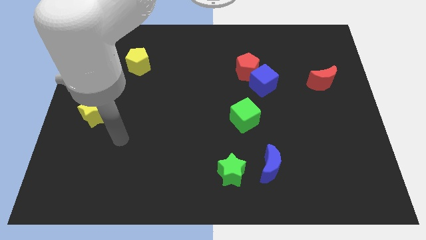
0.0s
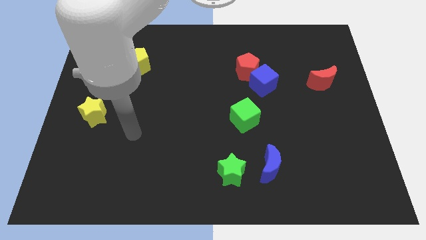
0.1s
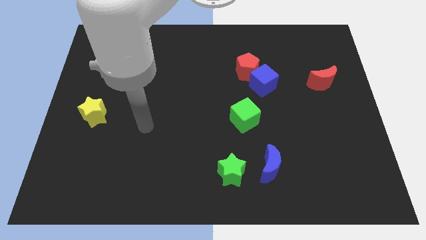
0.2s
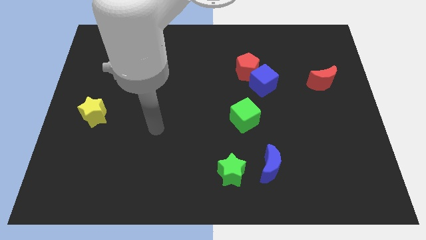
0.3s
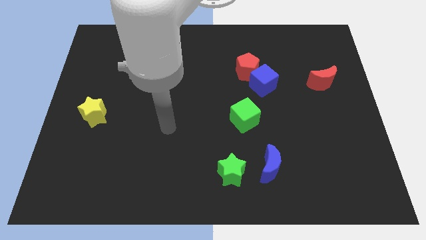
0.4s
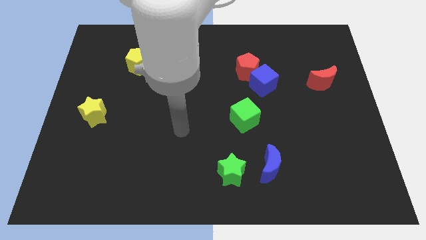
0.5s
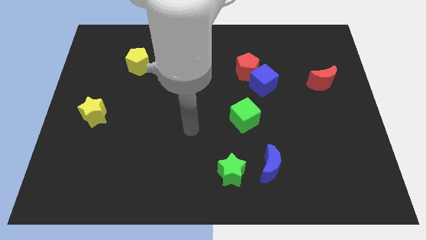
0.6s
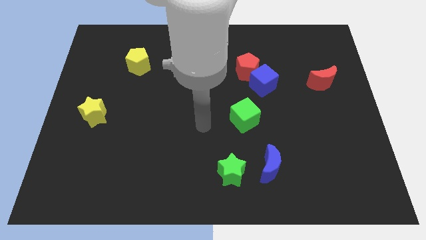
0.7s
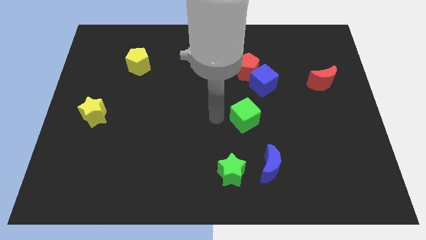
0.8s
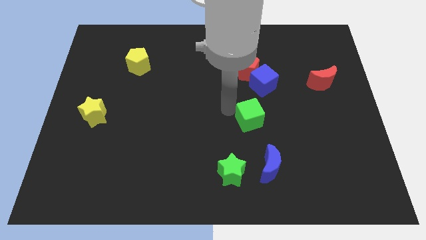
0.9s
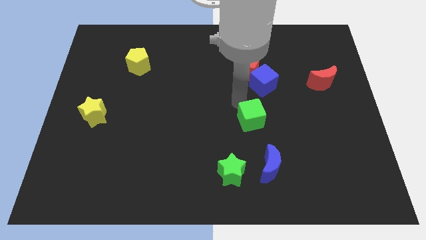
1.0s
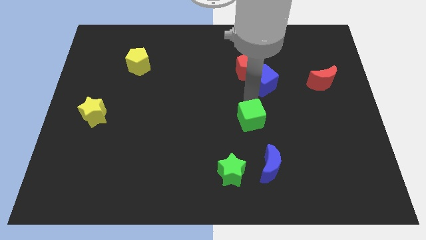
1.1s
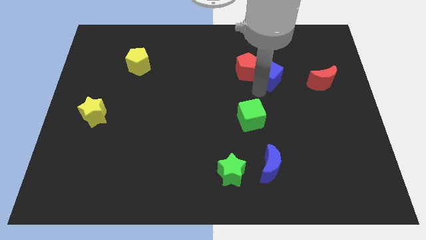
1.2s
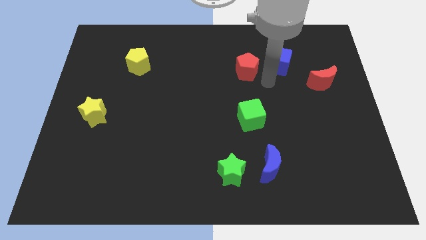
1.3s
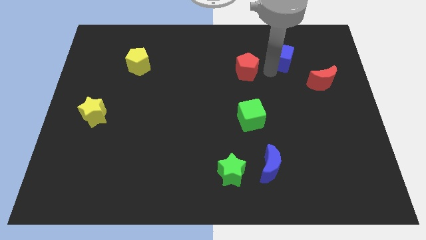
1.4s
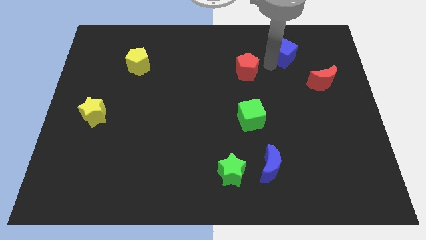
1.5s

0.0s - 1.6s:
separate the red pentagon from the blue cube

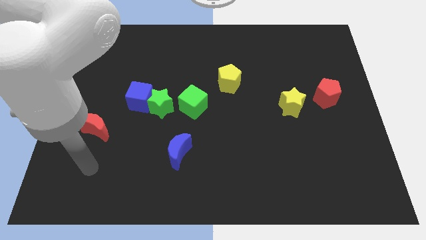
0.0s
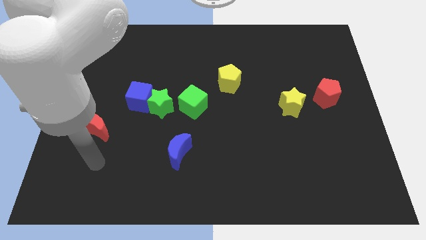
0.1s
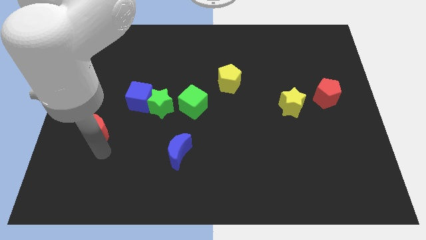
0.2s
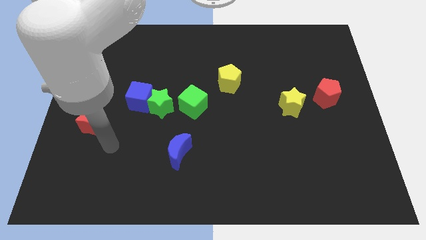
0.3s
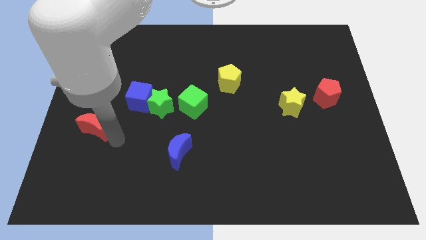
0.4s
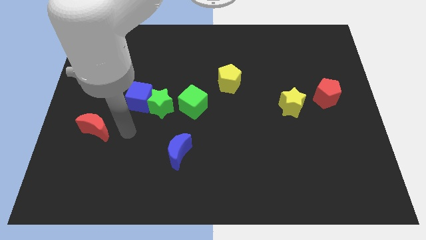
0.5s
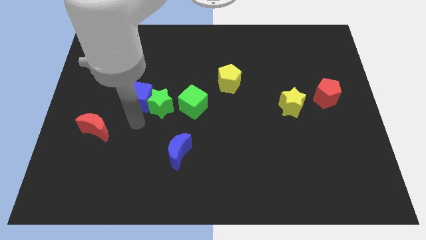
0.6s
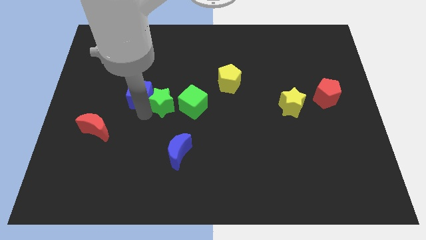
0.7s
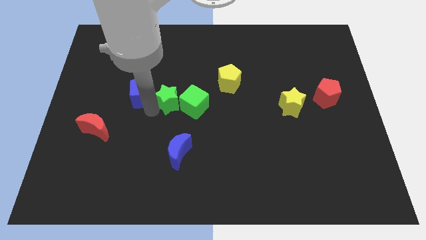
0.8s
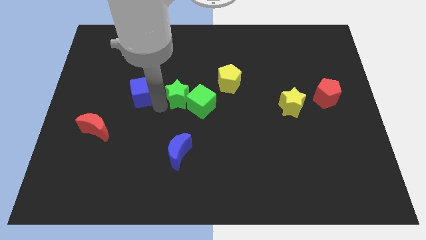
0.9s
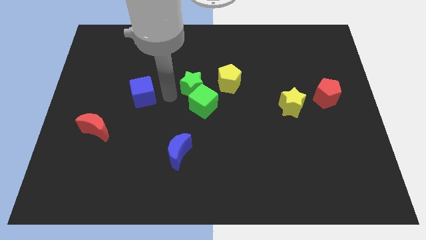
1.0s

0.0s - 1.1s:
separate the blue cube from the green star

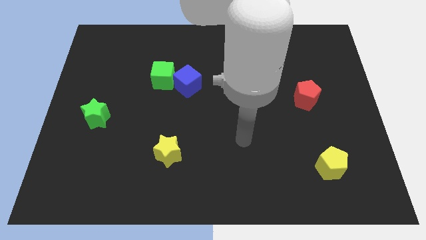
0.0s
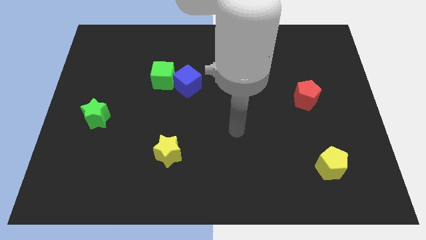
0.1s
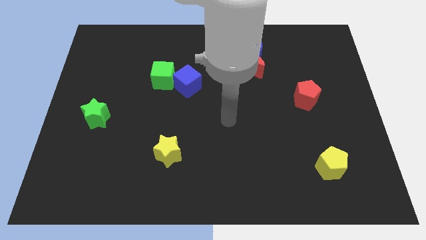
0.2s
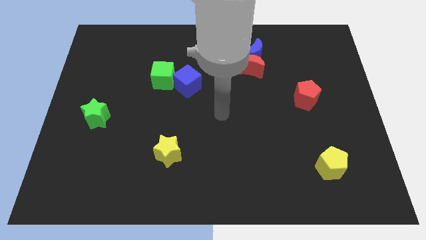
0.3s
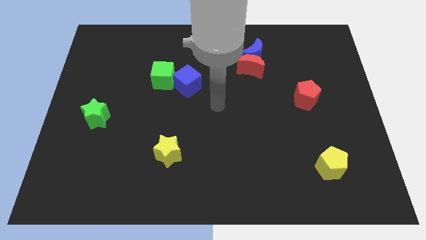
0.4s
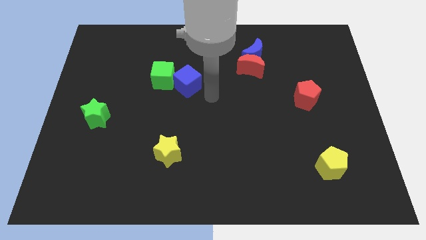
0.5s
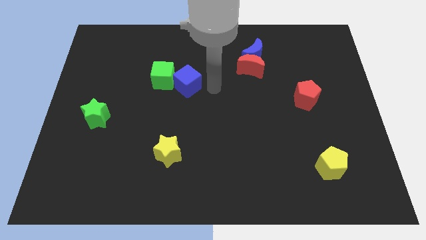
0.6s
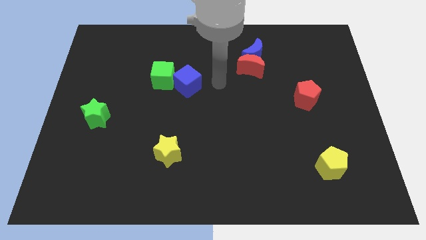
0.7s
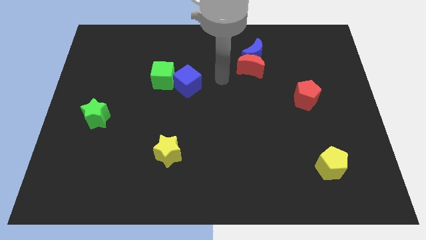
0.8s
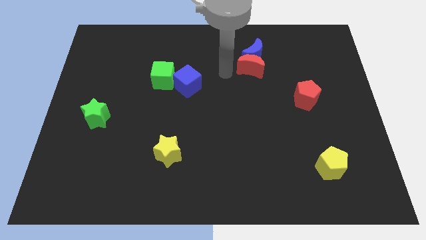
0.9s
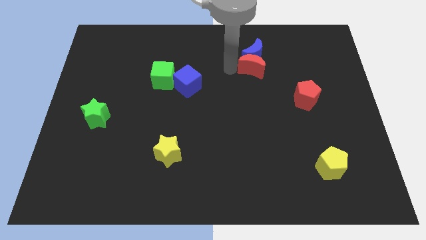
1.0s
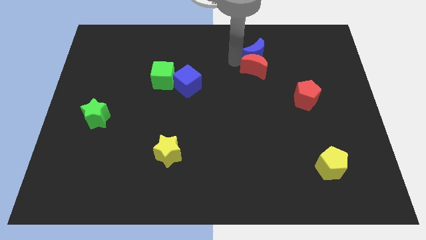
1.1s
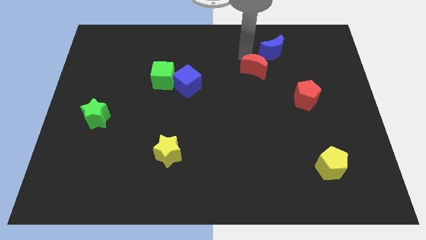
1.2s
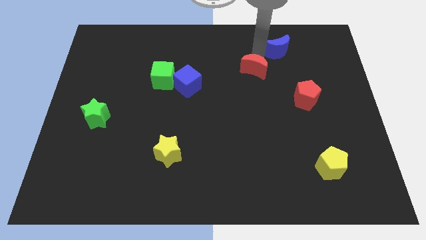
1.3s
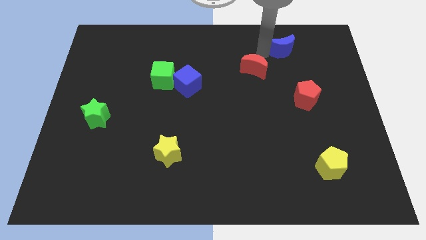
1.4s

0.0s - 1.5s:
move the red moon away from the blue moon

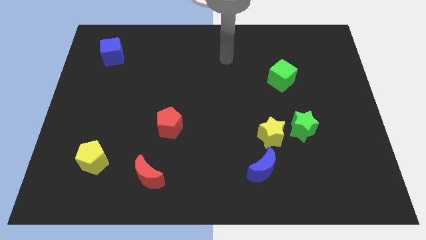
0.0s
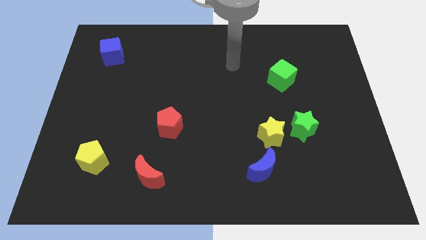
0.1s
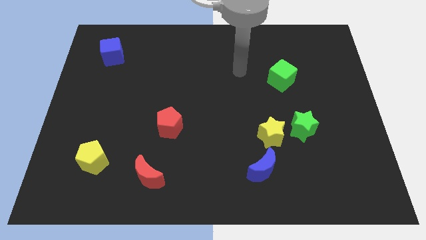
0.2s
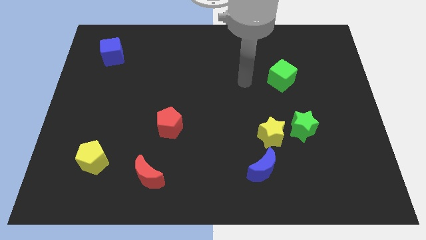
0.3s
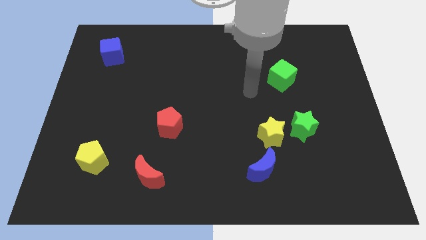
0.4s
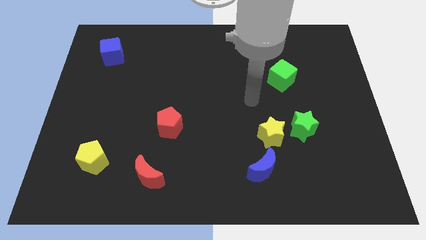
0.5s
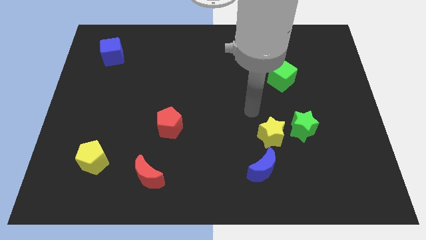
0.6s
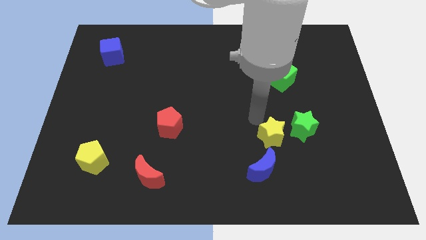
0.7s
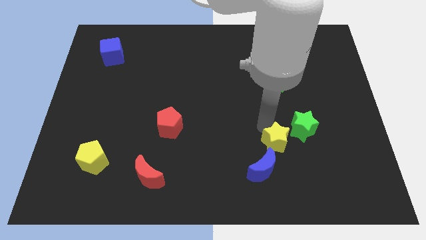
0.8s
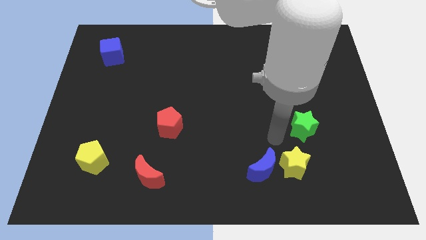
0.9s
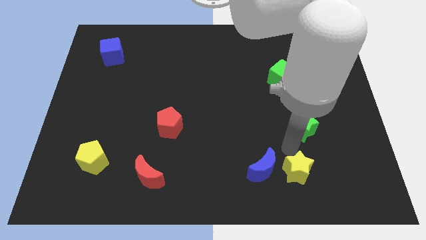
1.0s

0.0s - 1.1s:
pull the green star apart from the yellow star

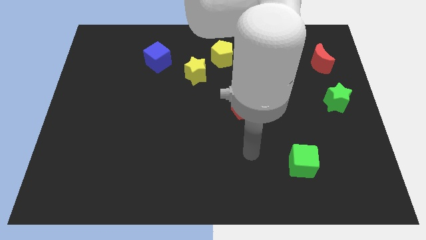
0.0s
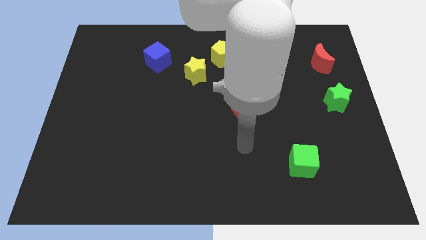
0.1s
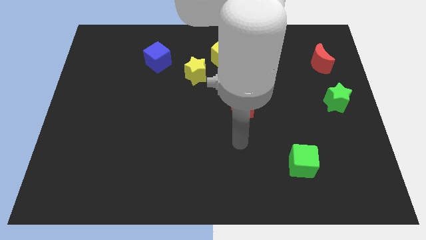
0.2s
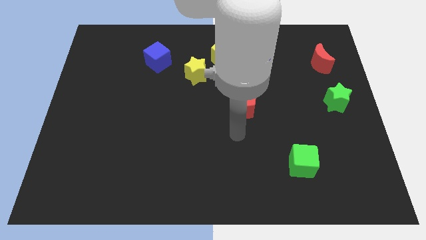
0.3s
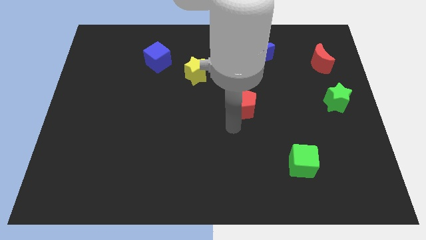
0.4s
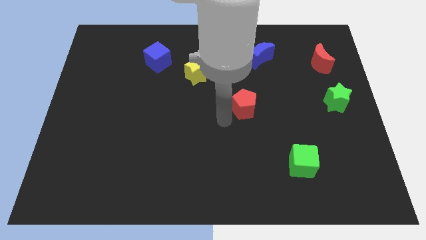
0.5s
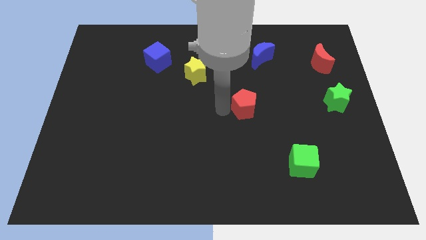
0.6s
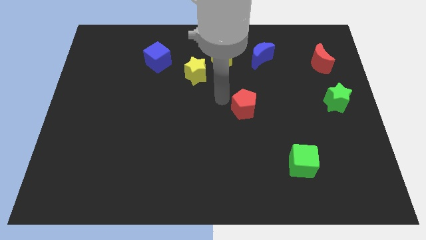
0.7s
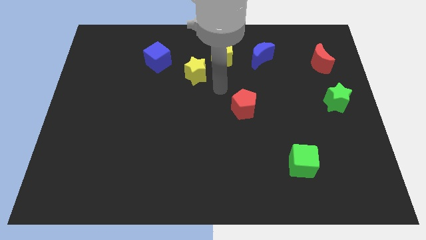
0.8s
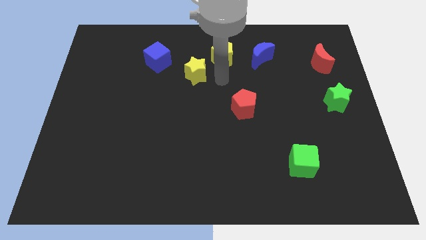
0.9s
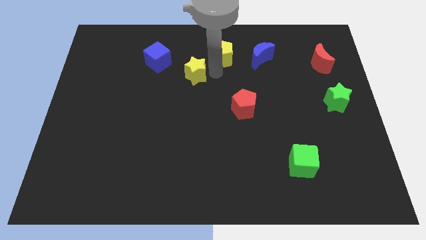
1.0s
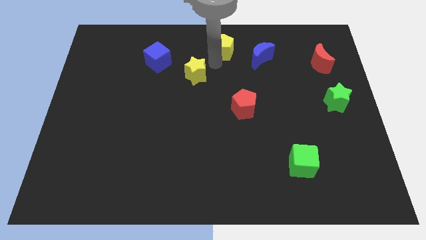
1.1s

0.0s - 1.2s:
move the yellow star away from the yellow pentagon

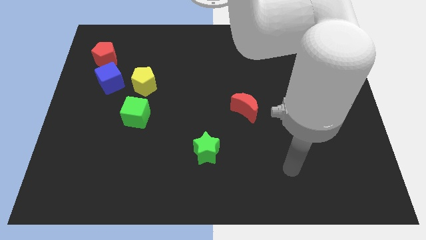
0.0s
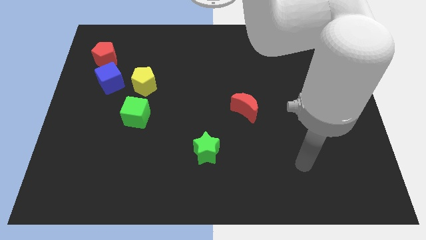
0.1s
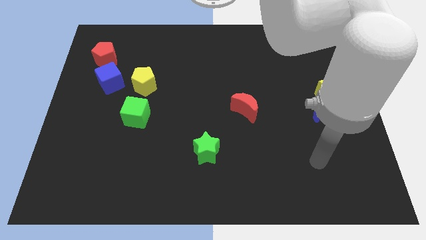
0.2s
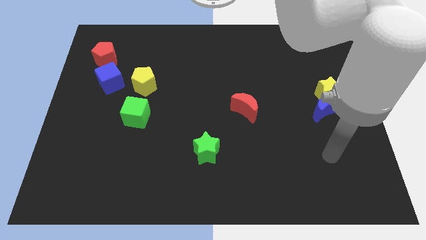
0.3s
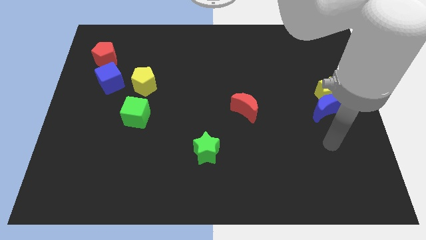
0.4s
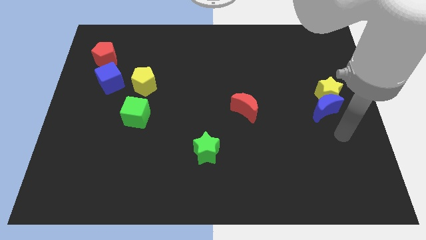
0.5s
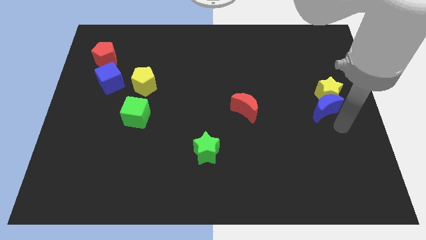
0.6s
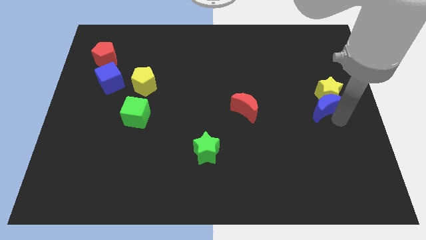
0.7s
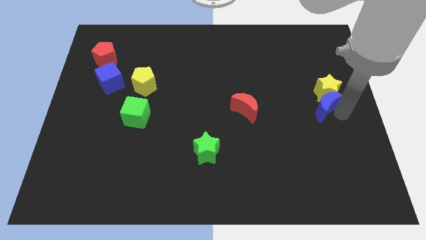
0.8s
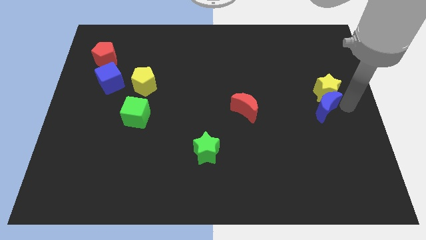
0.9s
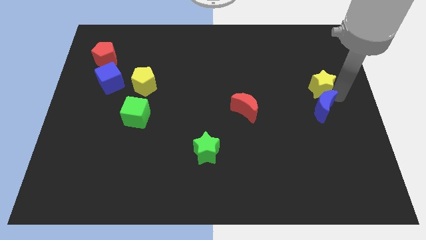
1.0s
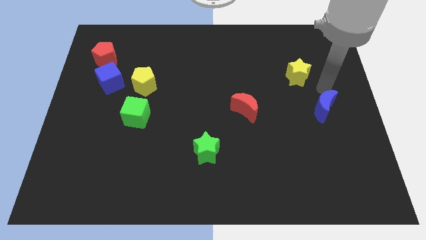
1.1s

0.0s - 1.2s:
separate the blue moon from the yellow star

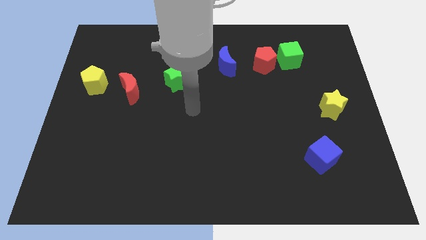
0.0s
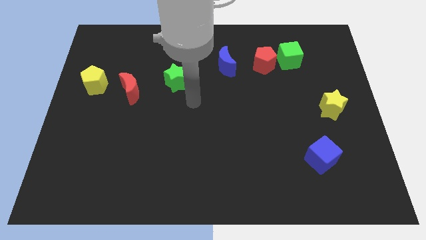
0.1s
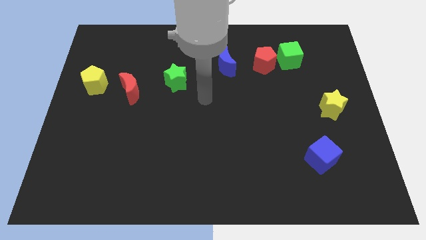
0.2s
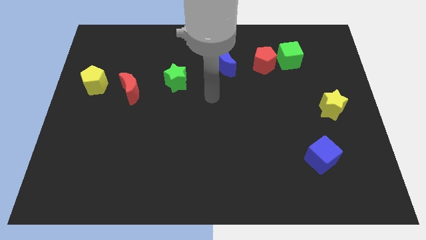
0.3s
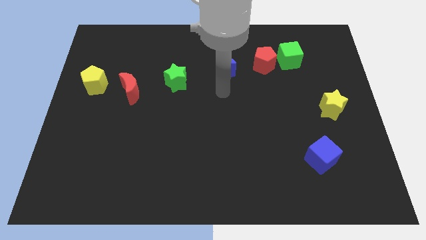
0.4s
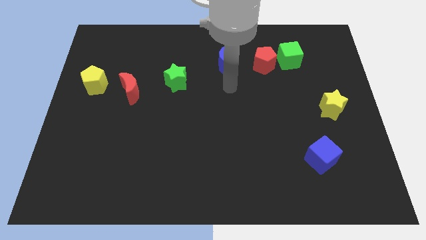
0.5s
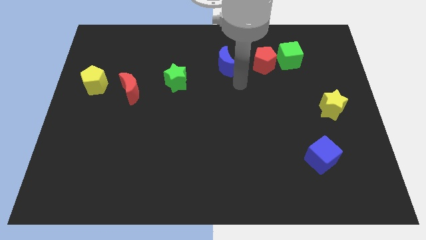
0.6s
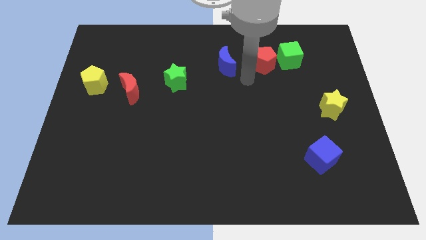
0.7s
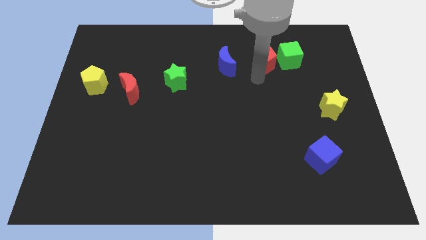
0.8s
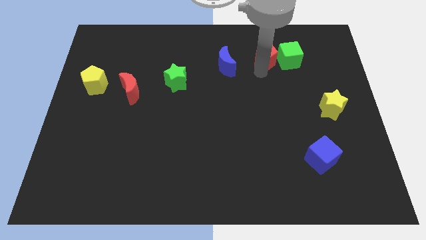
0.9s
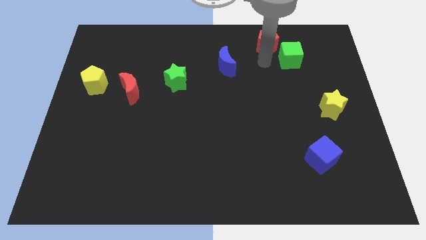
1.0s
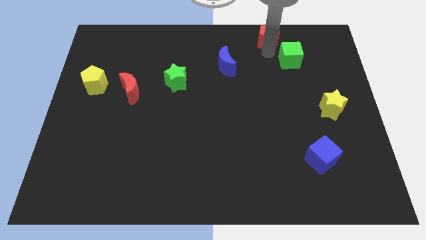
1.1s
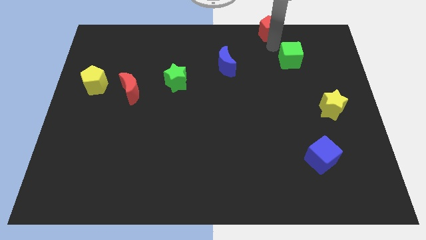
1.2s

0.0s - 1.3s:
pull the green cube apart from the red pentagon

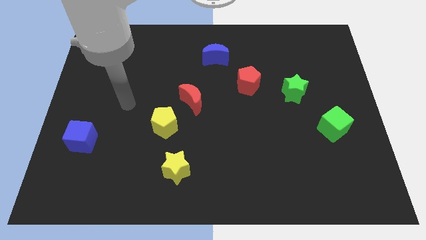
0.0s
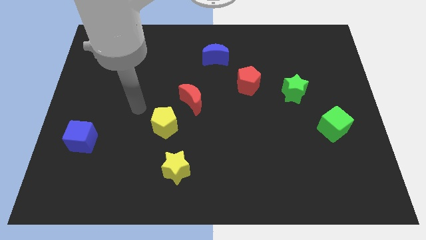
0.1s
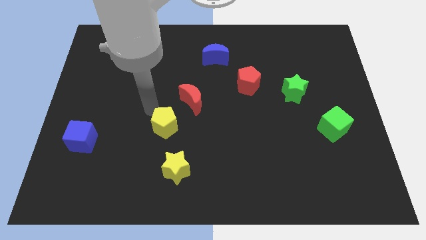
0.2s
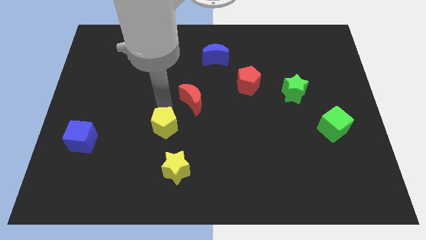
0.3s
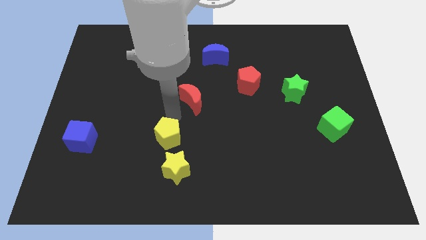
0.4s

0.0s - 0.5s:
pull the red moon apart from the yellow pentagon
